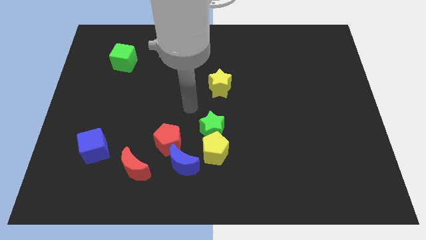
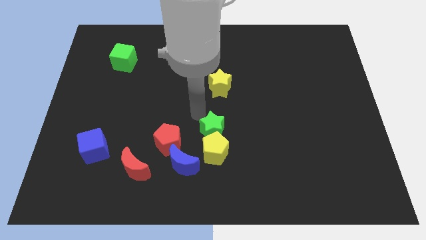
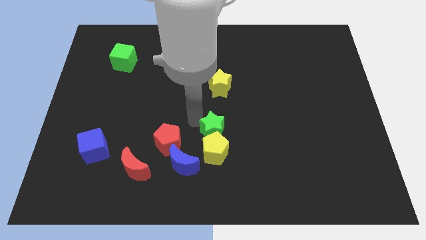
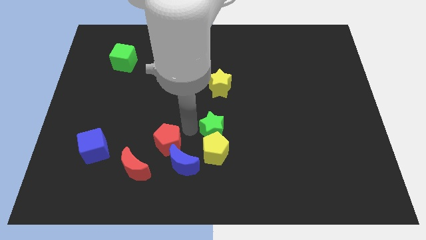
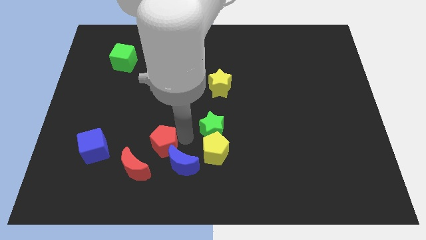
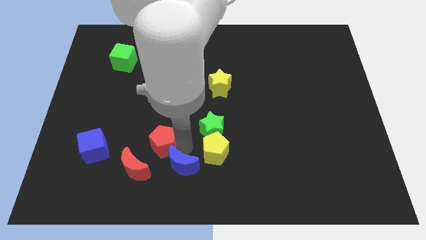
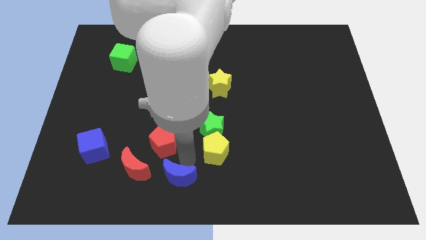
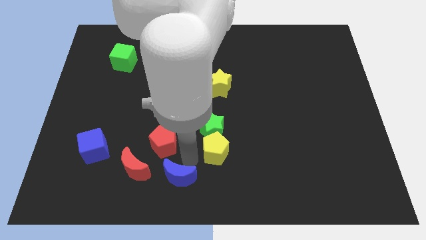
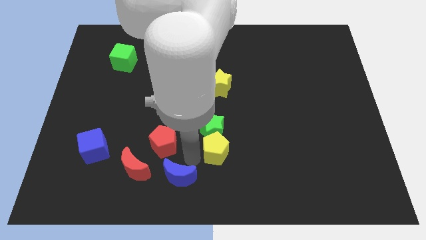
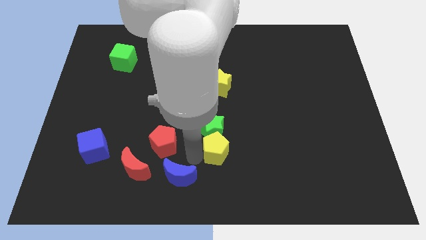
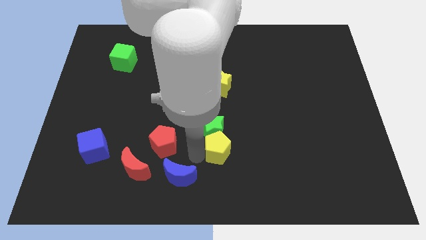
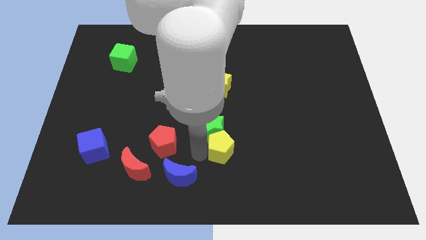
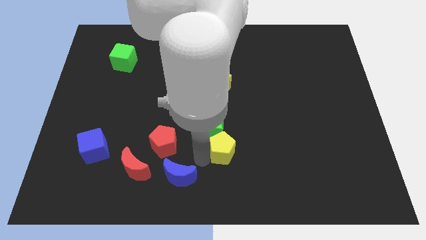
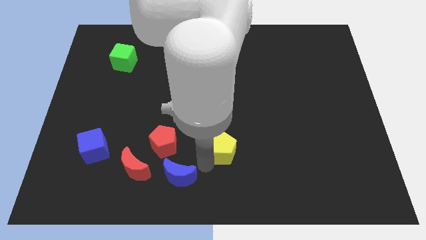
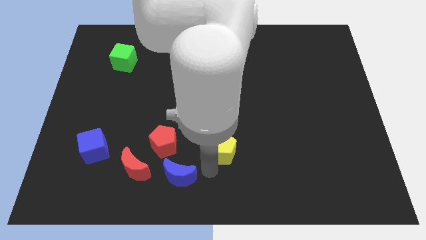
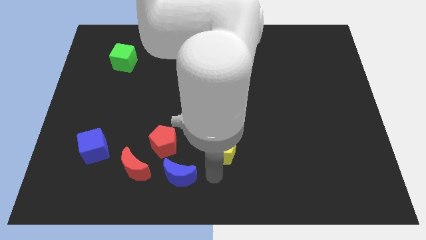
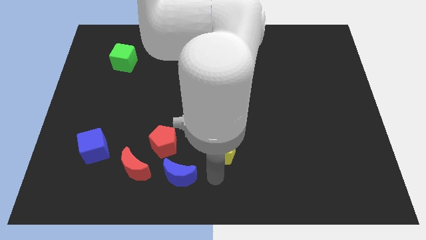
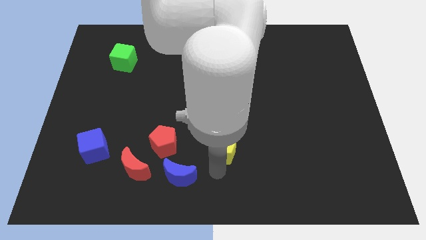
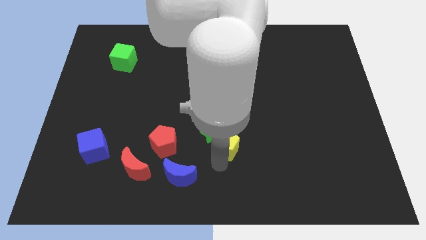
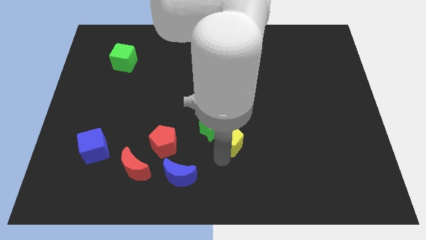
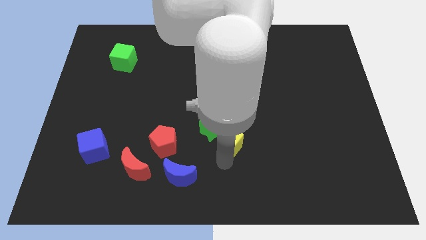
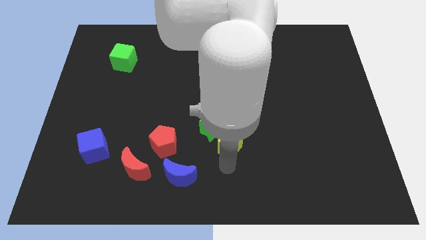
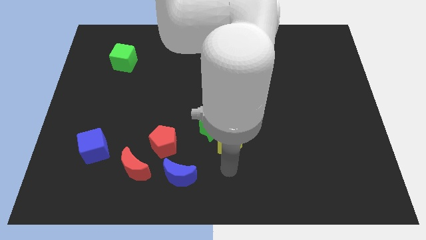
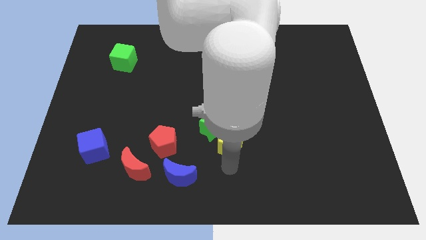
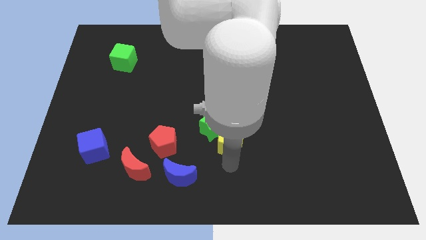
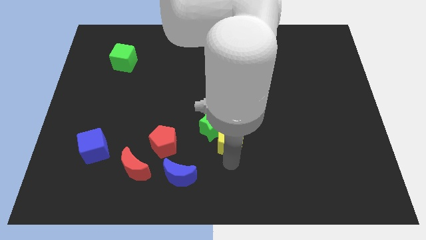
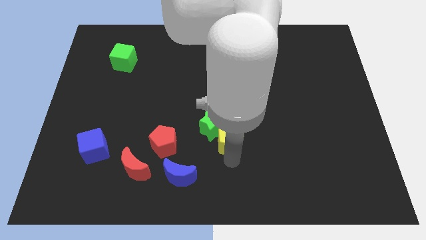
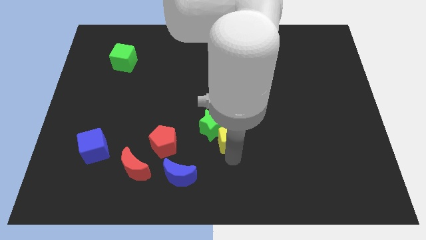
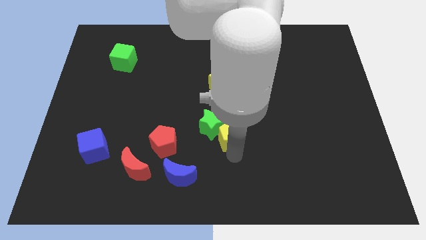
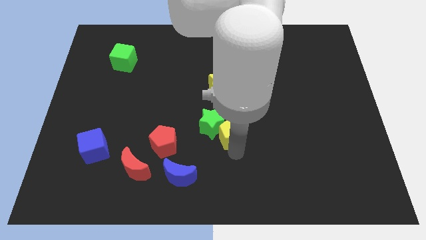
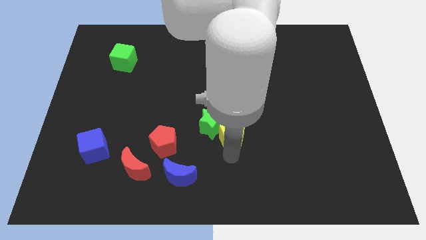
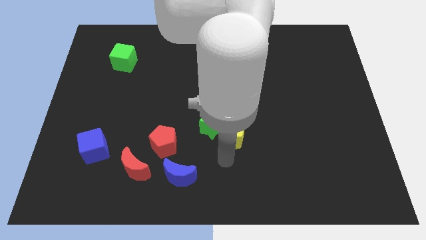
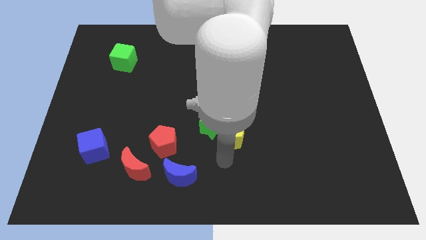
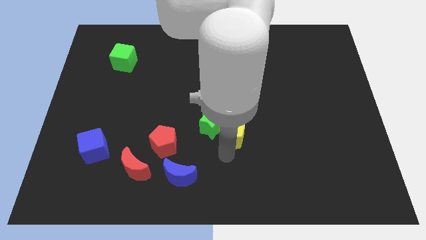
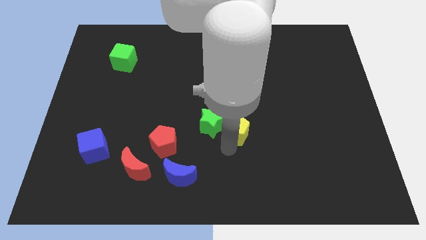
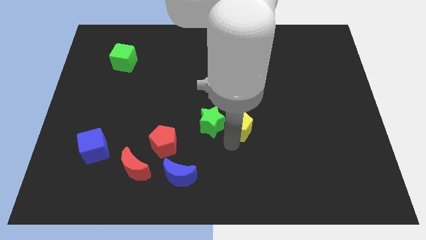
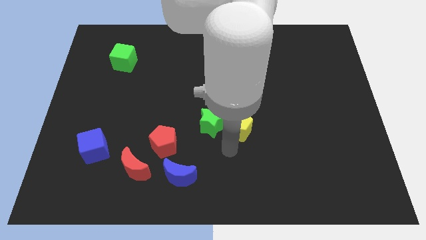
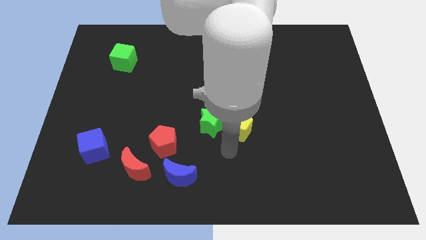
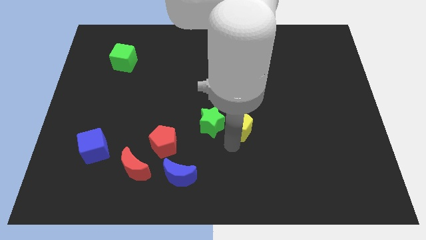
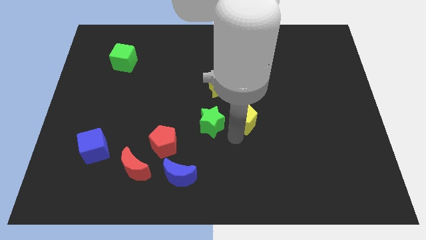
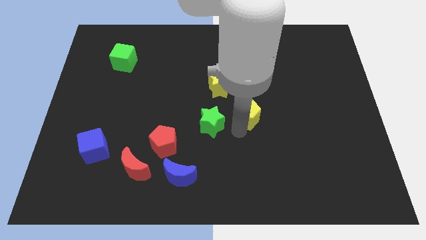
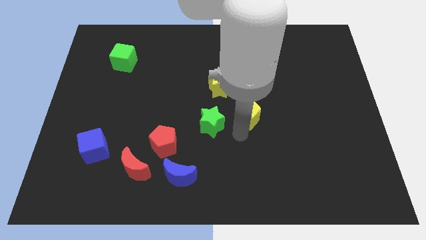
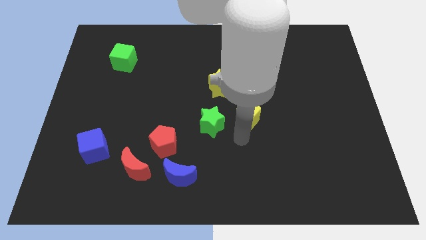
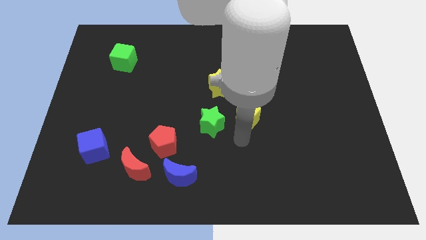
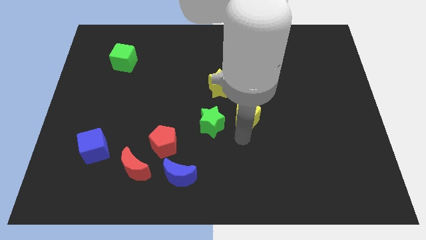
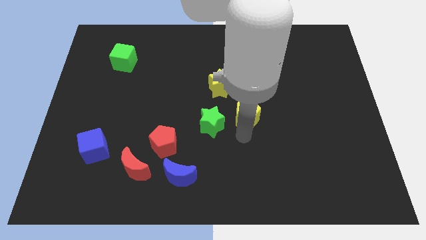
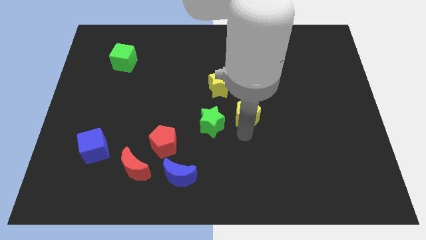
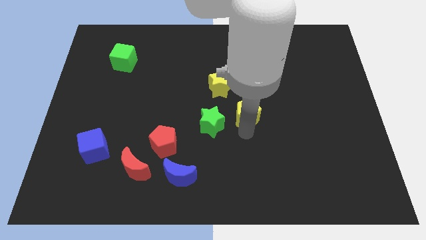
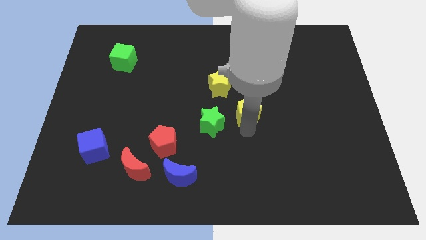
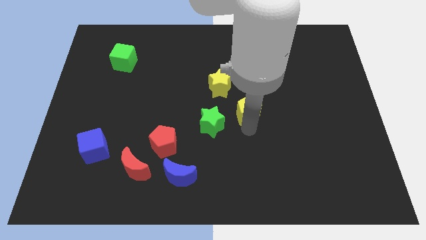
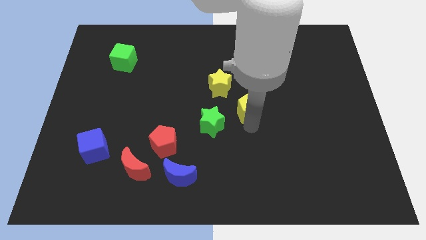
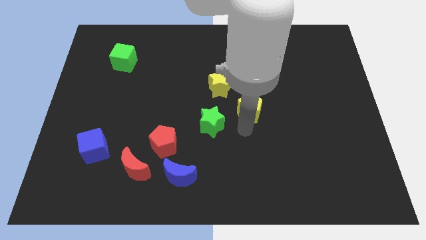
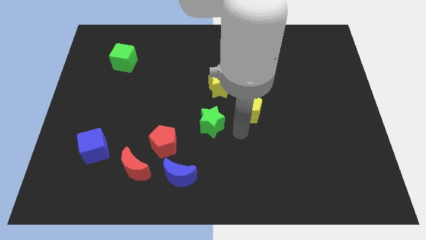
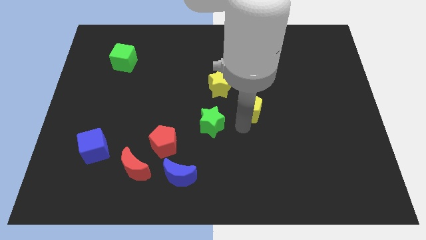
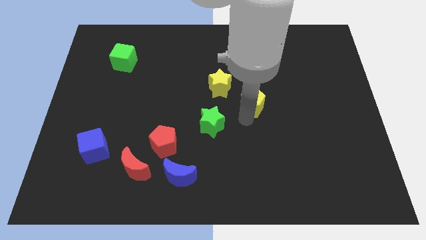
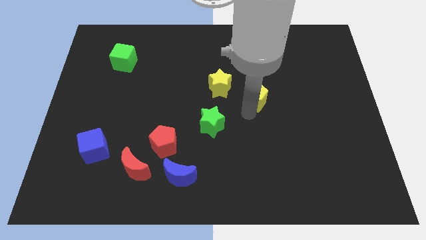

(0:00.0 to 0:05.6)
push the yellow pentagon right of the yellow star

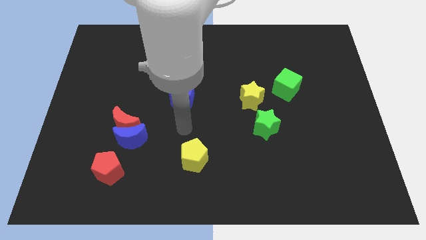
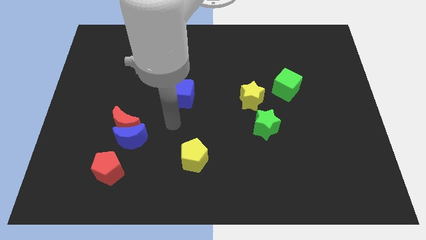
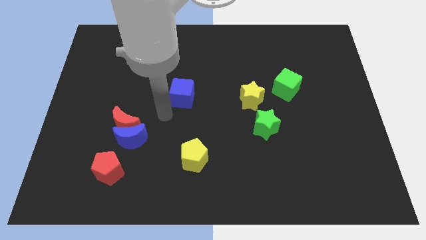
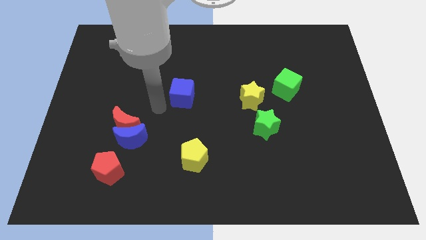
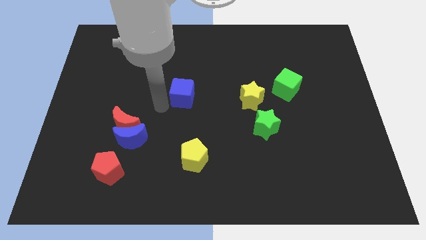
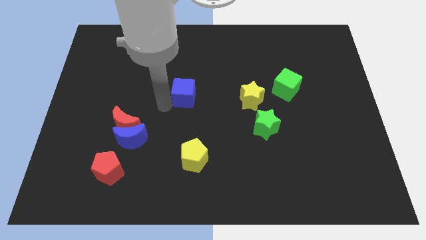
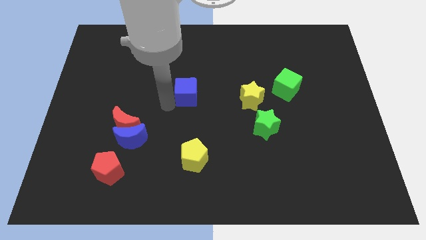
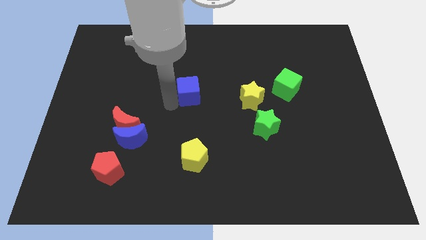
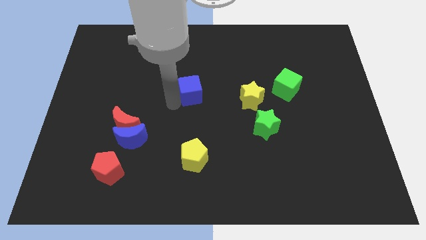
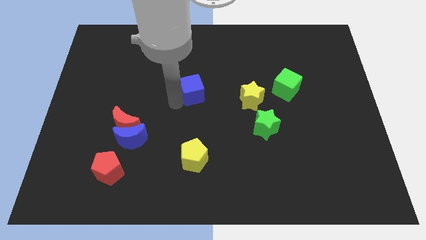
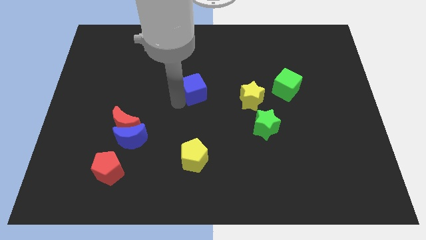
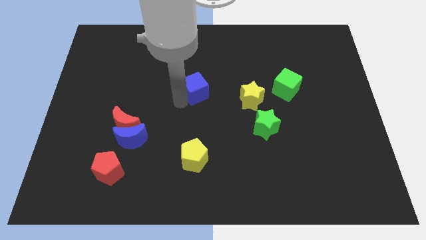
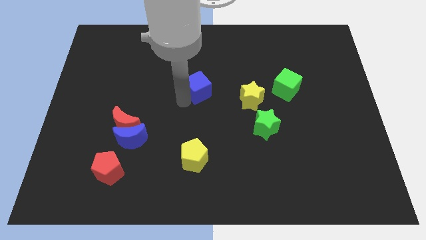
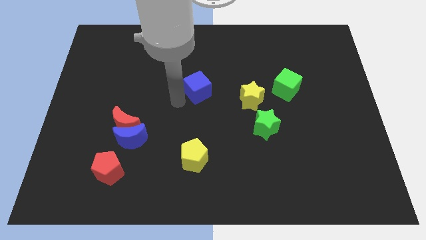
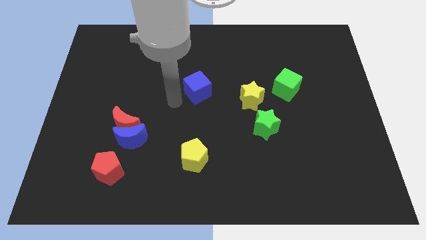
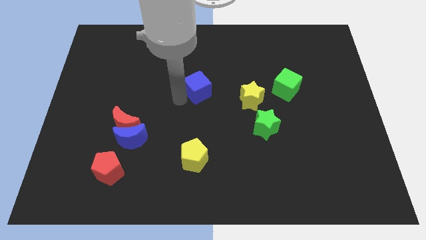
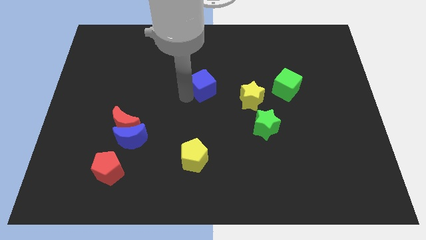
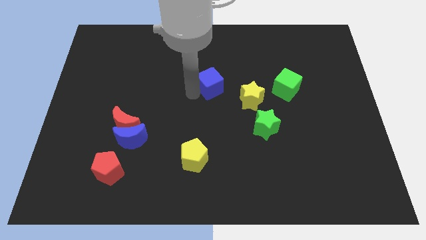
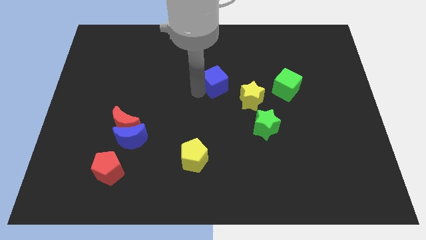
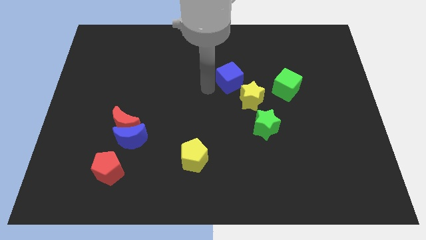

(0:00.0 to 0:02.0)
put the blue cube to the top of the yellow star
